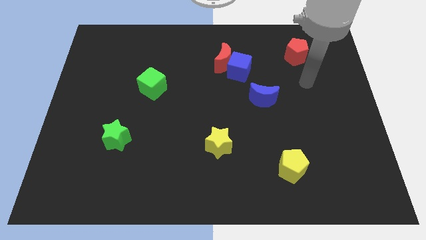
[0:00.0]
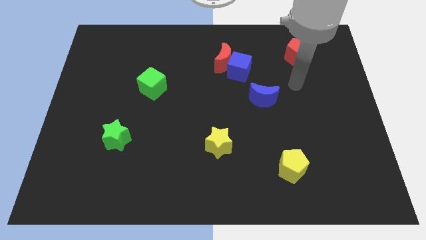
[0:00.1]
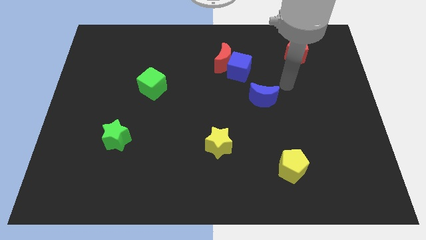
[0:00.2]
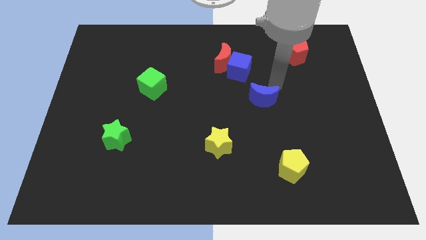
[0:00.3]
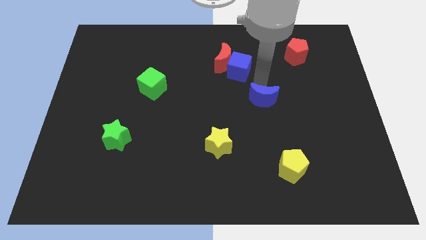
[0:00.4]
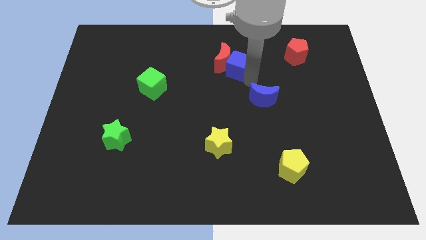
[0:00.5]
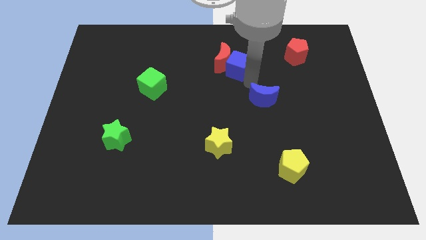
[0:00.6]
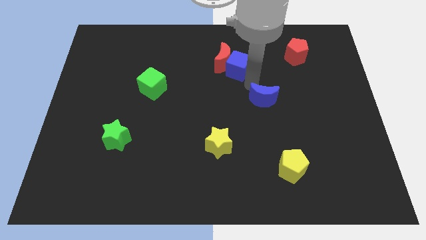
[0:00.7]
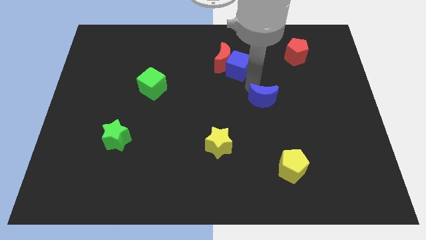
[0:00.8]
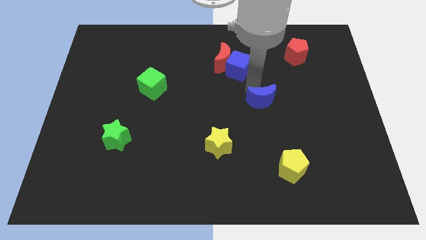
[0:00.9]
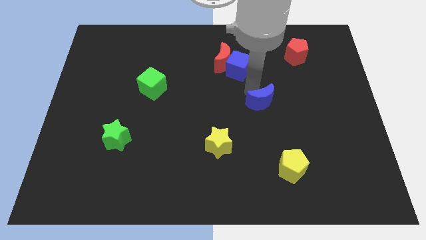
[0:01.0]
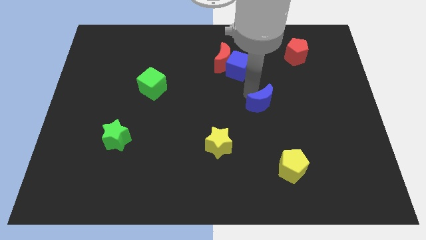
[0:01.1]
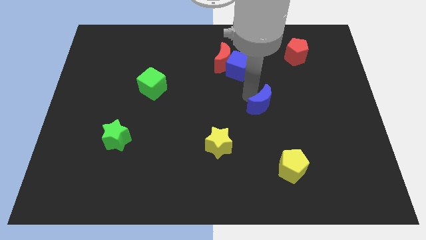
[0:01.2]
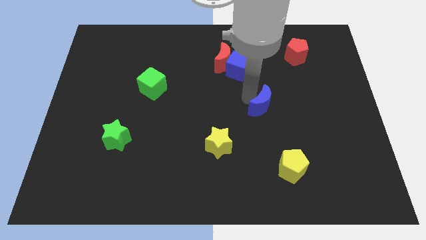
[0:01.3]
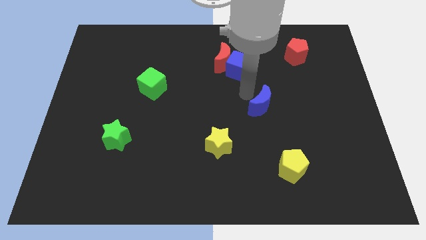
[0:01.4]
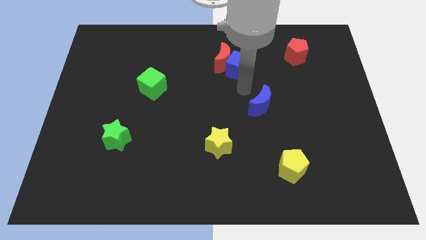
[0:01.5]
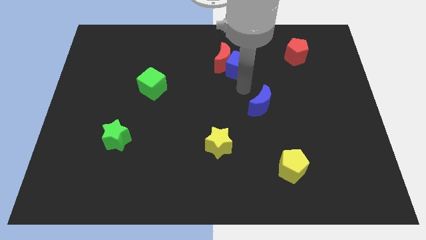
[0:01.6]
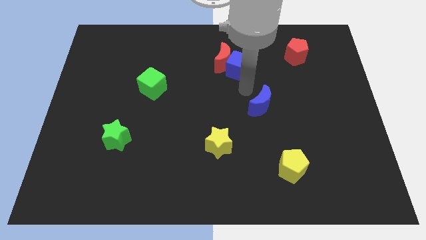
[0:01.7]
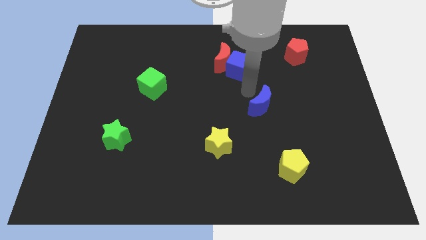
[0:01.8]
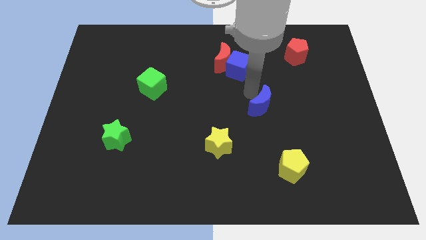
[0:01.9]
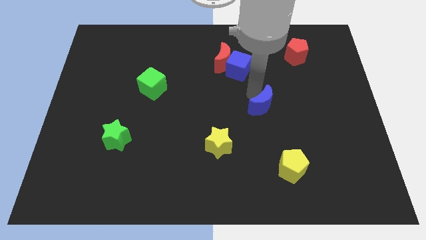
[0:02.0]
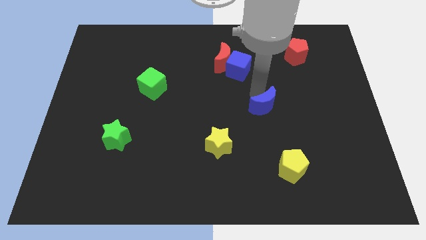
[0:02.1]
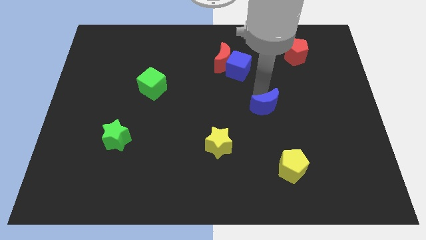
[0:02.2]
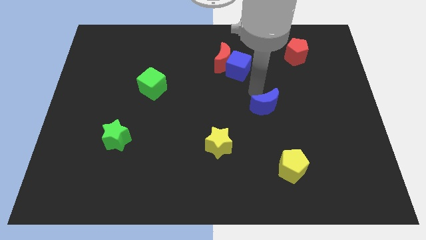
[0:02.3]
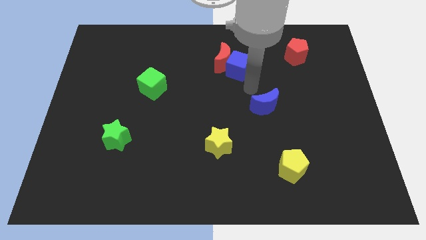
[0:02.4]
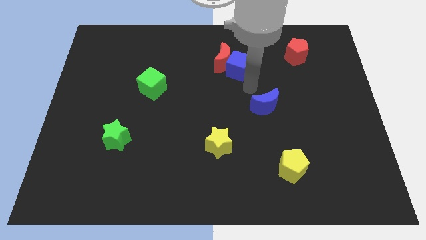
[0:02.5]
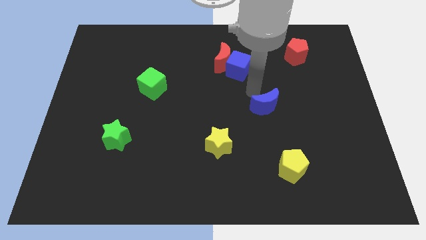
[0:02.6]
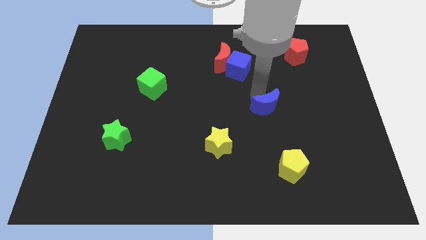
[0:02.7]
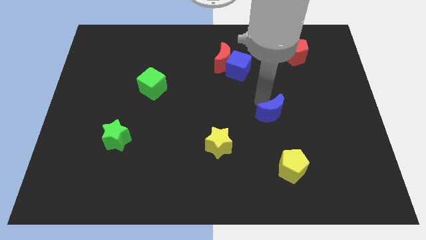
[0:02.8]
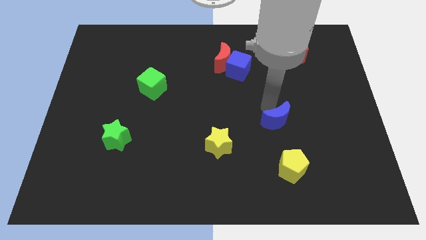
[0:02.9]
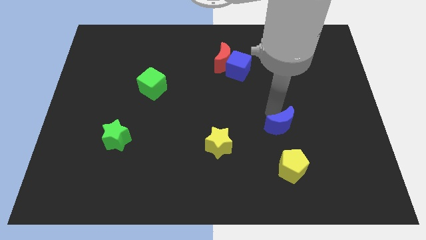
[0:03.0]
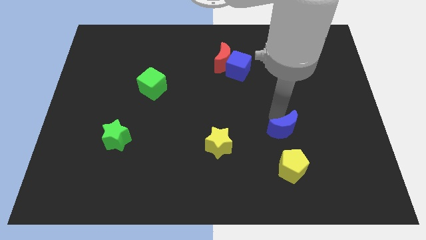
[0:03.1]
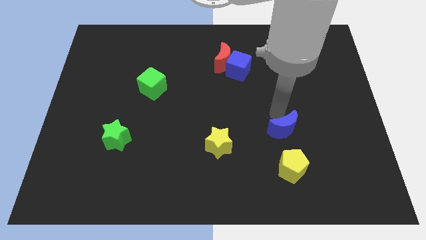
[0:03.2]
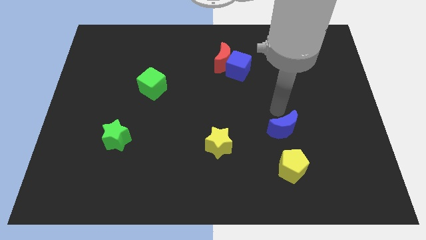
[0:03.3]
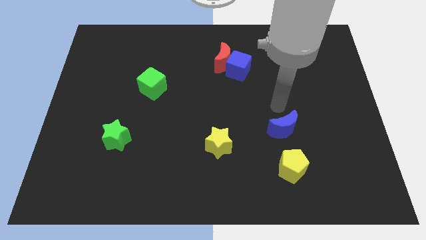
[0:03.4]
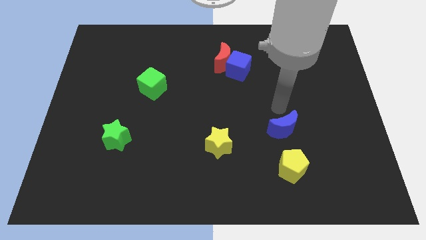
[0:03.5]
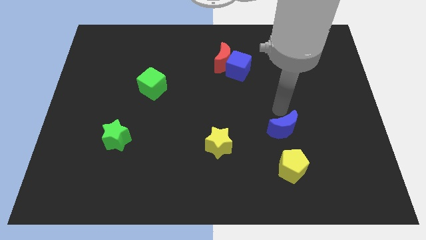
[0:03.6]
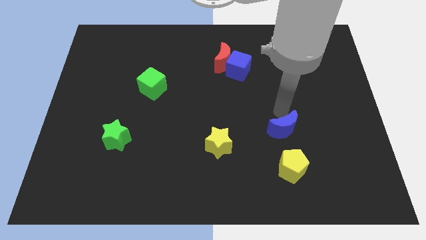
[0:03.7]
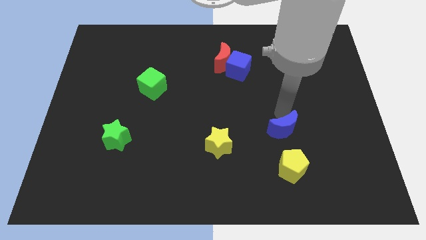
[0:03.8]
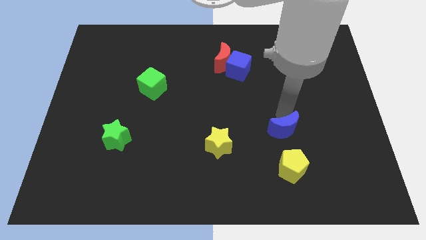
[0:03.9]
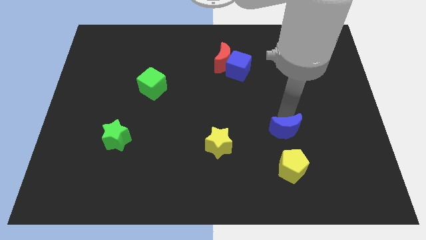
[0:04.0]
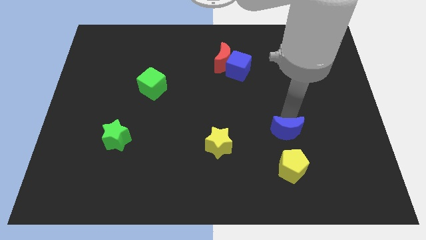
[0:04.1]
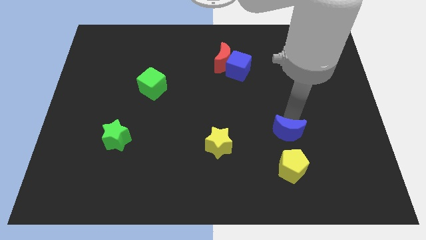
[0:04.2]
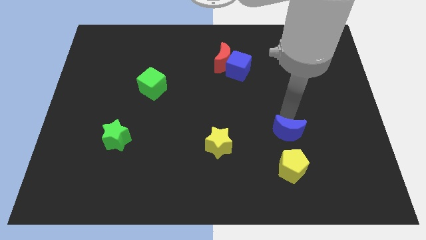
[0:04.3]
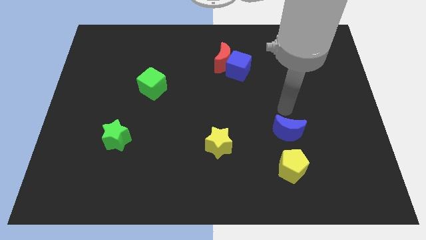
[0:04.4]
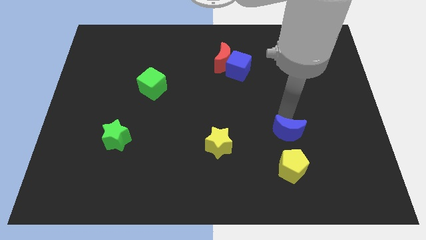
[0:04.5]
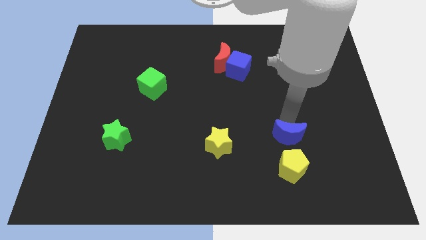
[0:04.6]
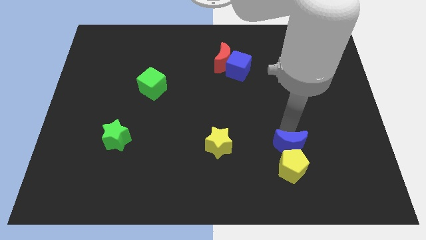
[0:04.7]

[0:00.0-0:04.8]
move the blue moon towards the yellow pentagon

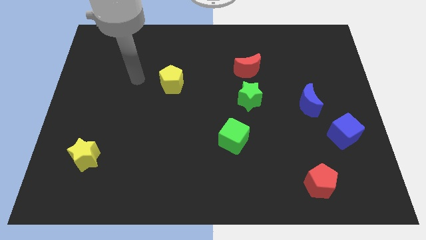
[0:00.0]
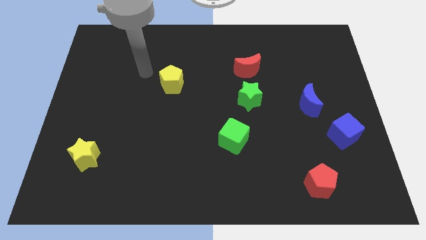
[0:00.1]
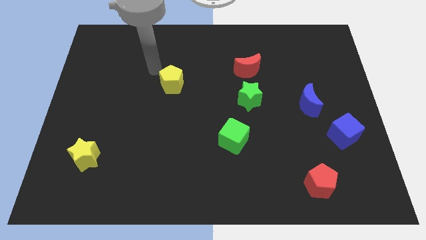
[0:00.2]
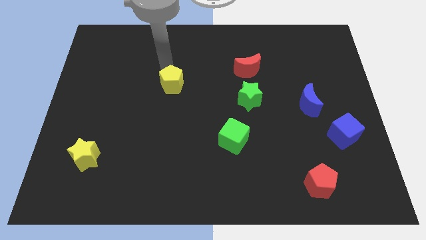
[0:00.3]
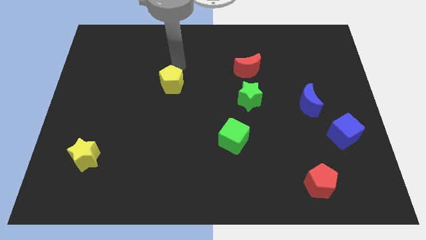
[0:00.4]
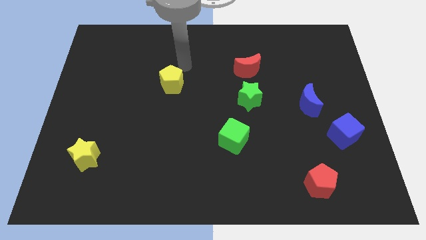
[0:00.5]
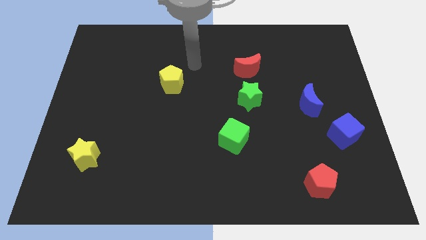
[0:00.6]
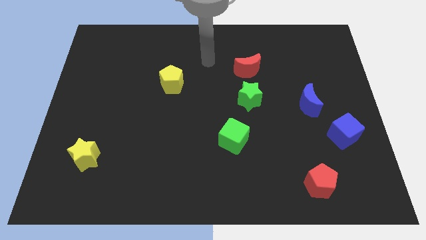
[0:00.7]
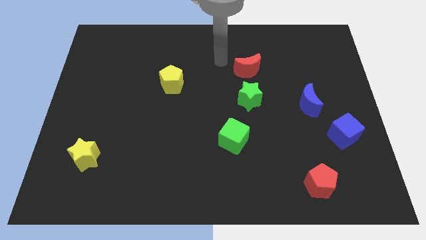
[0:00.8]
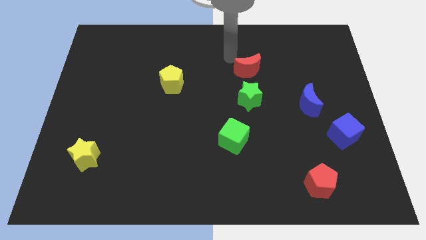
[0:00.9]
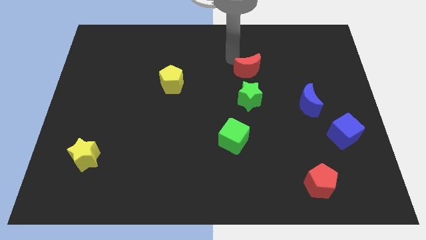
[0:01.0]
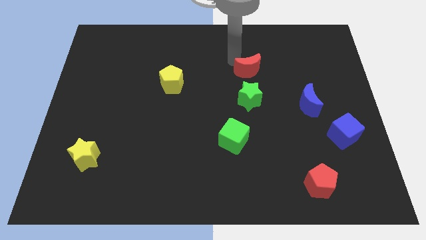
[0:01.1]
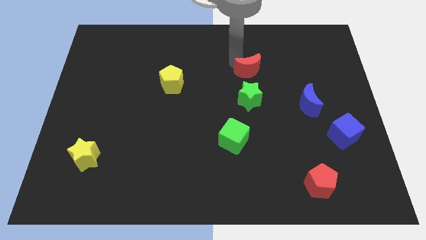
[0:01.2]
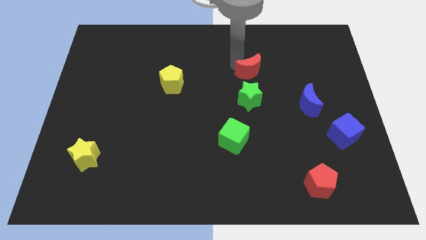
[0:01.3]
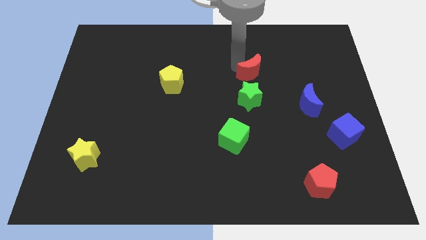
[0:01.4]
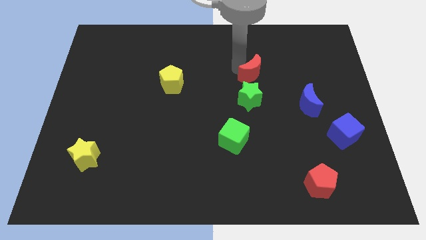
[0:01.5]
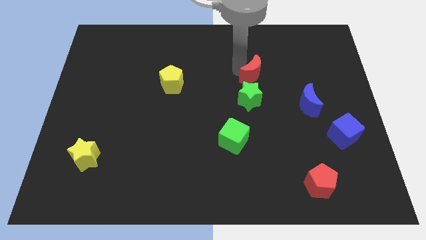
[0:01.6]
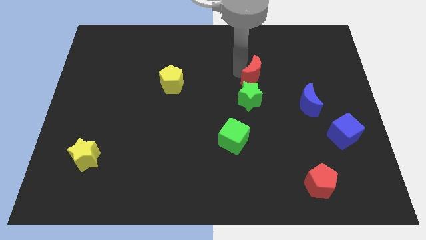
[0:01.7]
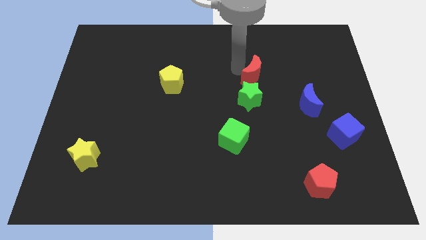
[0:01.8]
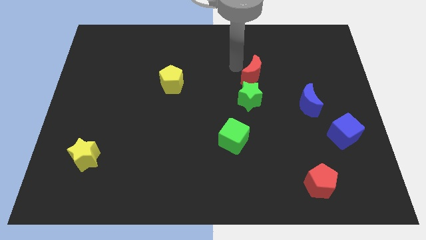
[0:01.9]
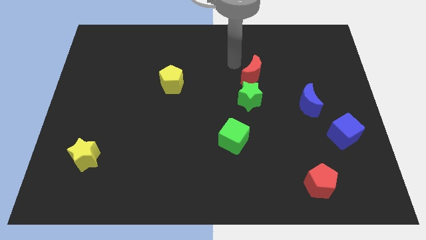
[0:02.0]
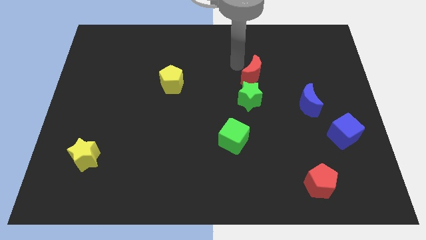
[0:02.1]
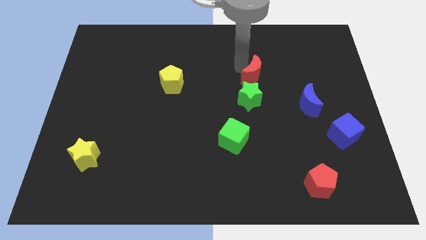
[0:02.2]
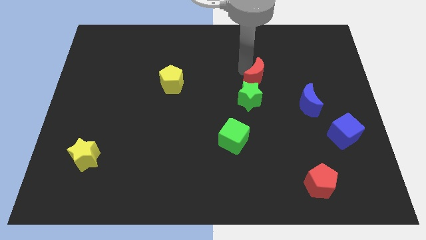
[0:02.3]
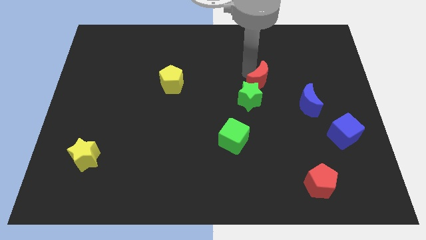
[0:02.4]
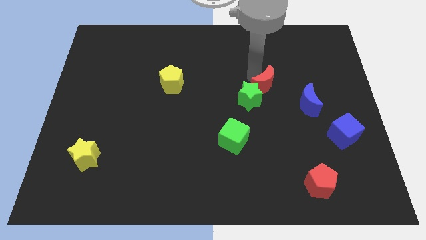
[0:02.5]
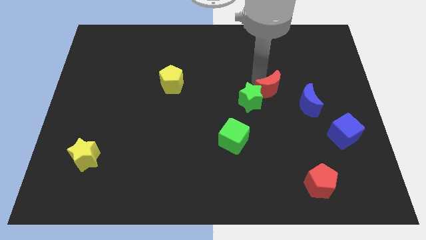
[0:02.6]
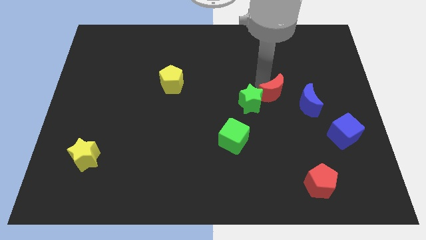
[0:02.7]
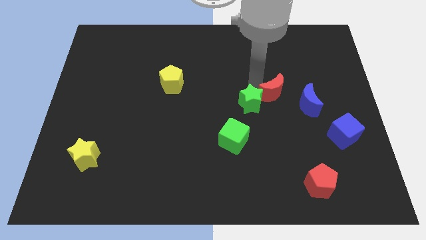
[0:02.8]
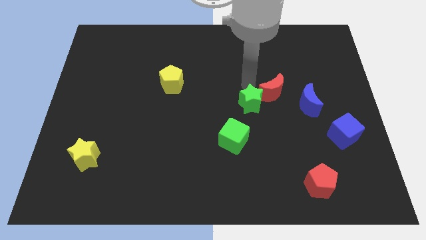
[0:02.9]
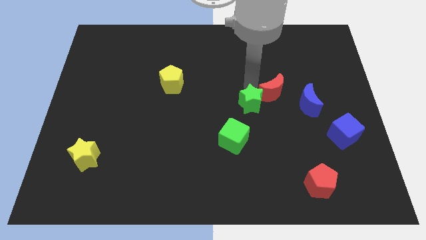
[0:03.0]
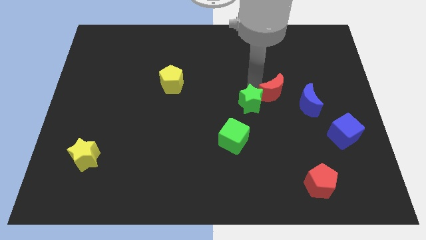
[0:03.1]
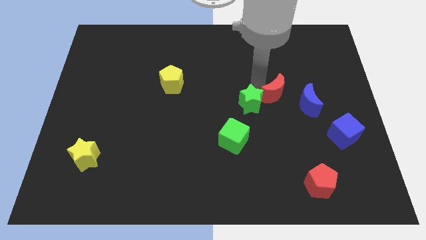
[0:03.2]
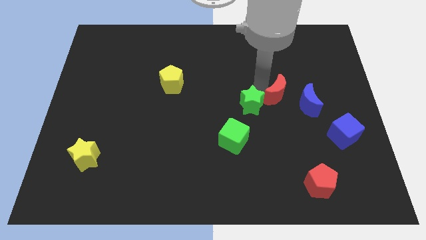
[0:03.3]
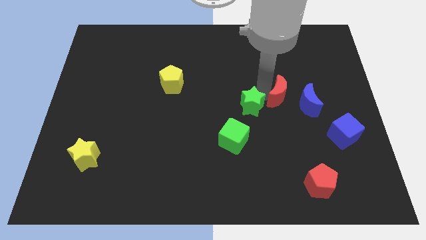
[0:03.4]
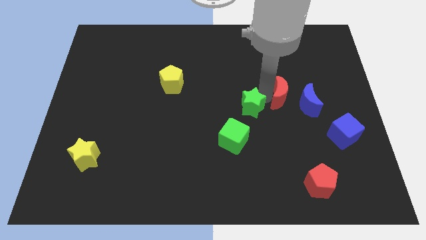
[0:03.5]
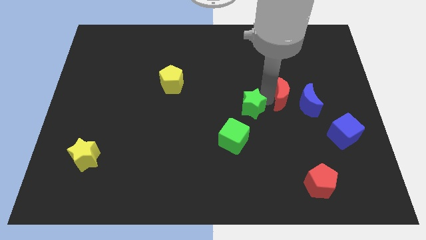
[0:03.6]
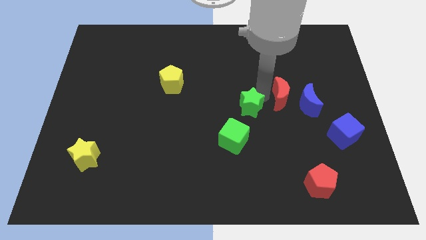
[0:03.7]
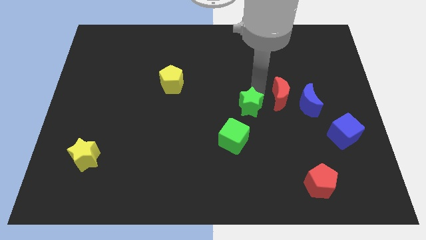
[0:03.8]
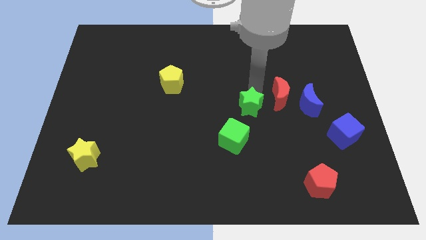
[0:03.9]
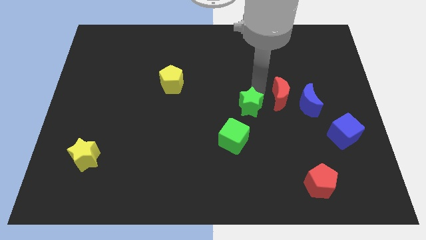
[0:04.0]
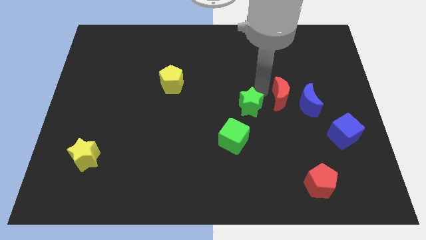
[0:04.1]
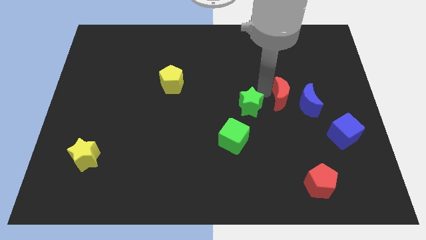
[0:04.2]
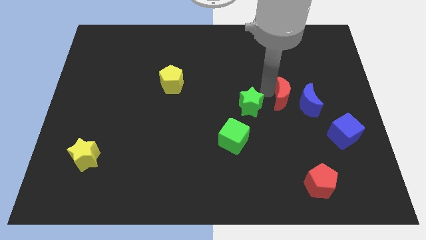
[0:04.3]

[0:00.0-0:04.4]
push the red moon close to the blue moon
